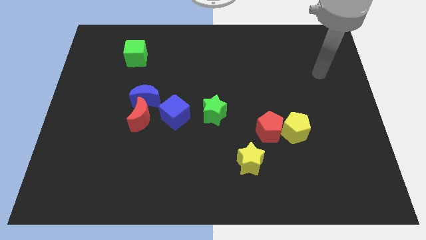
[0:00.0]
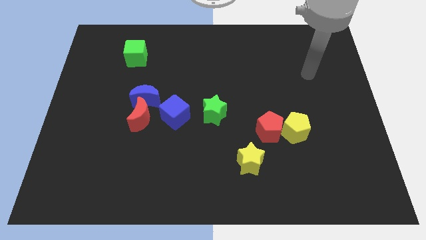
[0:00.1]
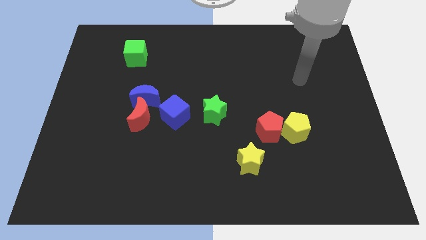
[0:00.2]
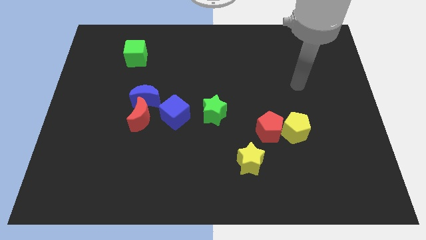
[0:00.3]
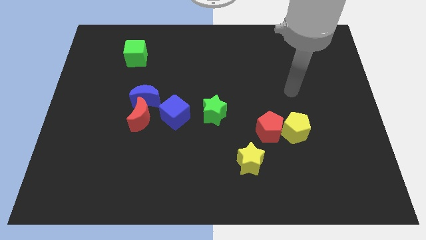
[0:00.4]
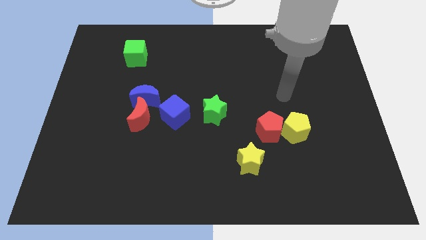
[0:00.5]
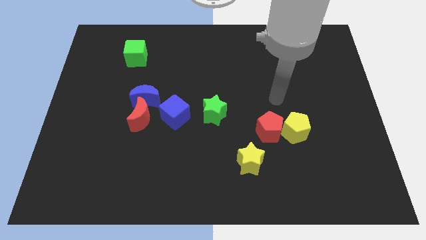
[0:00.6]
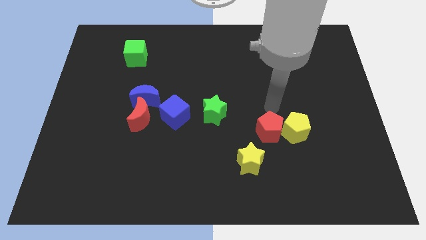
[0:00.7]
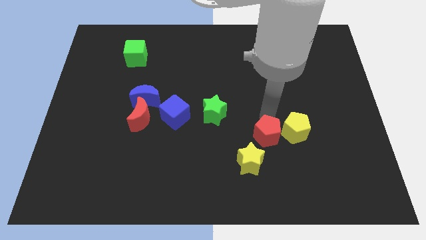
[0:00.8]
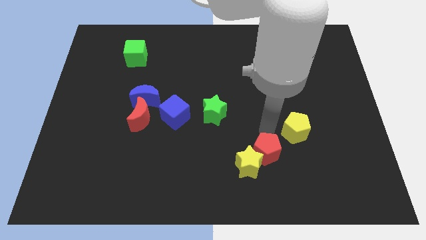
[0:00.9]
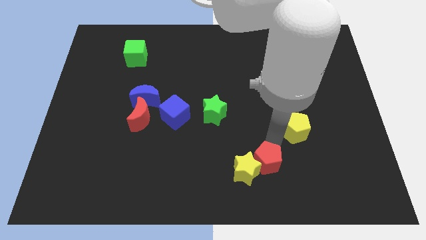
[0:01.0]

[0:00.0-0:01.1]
pull the yellow pentagon apart from the red pentagon

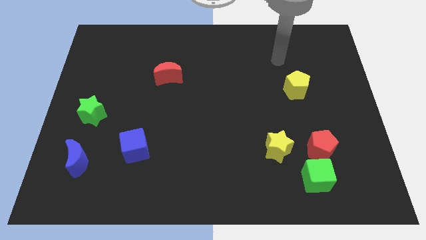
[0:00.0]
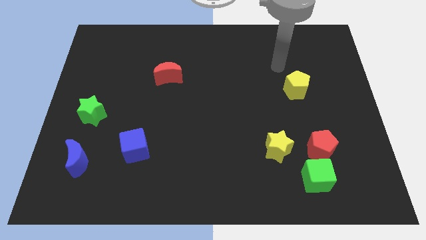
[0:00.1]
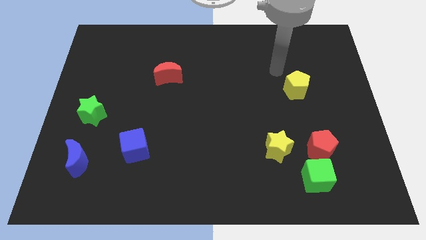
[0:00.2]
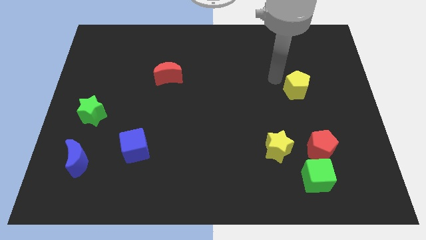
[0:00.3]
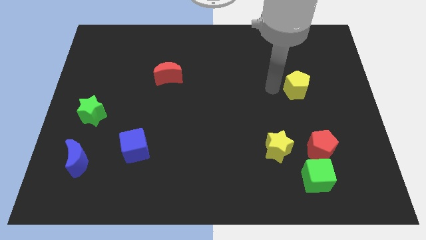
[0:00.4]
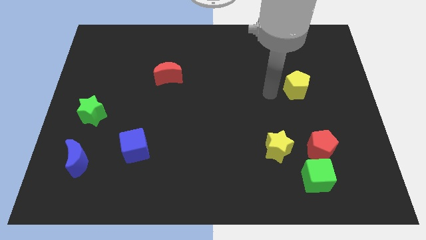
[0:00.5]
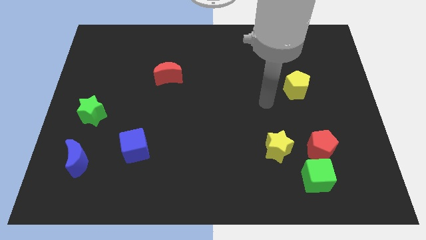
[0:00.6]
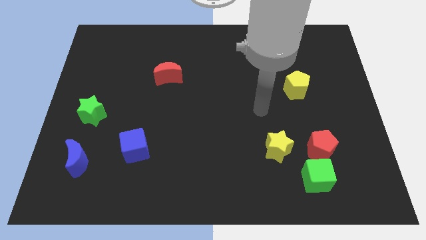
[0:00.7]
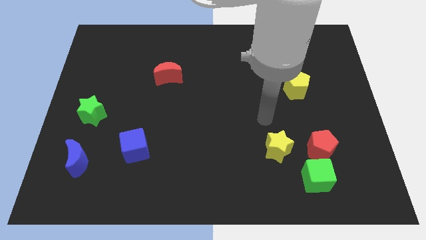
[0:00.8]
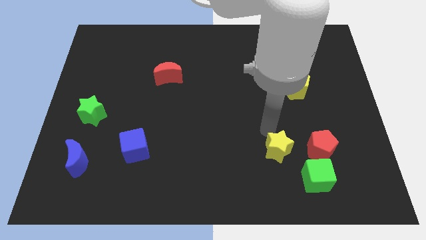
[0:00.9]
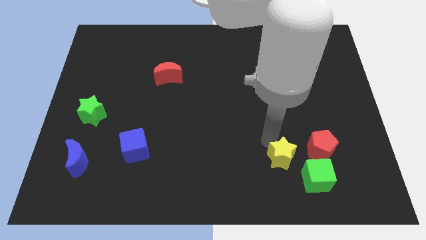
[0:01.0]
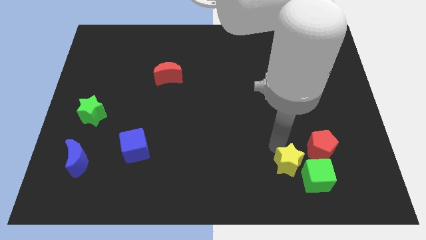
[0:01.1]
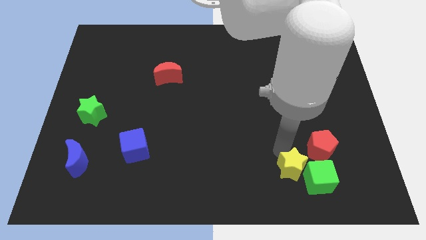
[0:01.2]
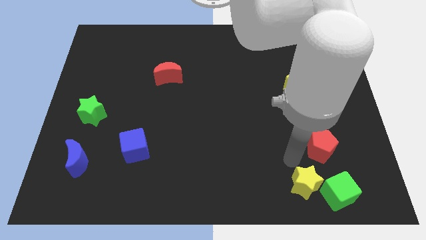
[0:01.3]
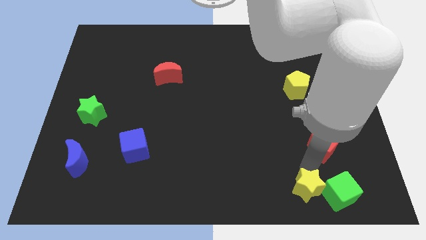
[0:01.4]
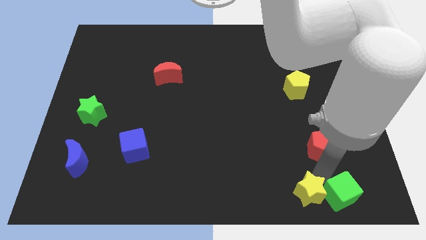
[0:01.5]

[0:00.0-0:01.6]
move the red pentagon away from the green cube and yellow star

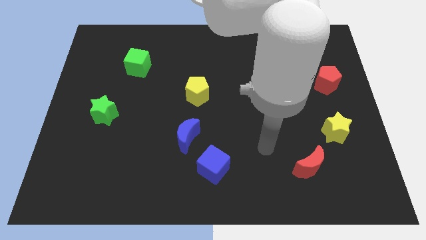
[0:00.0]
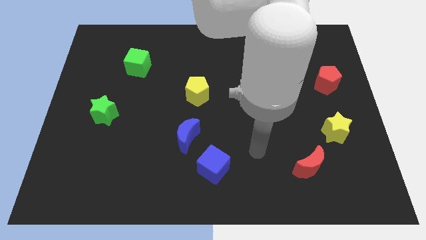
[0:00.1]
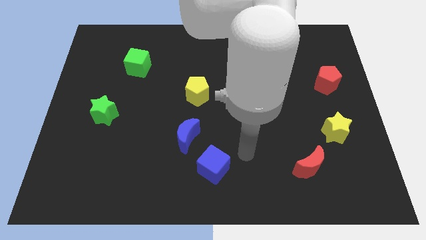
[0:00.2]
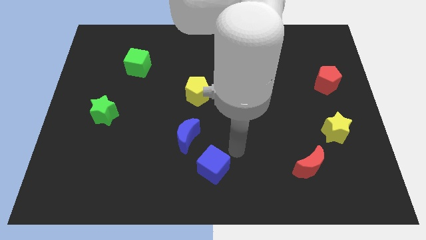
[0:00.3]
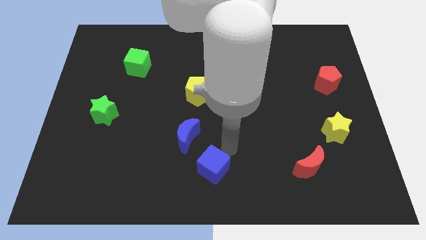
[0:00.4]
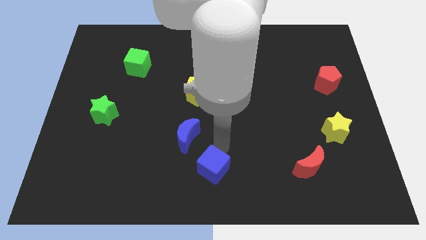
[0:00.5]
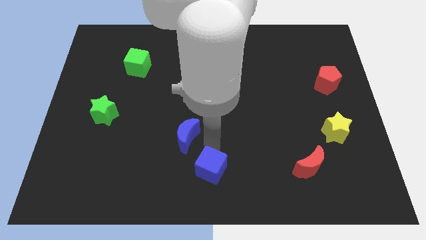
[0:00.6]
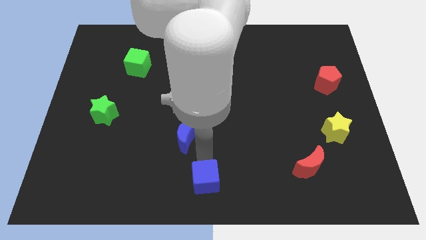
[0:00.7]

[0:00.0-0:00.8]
pull the blue moon apart from the blue cube

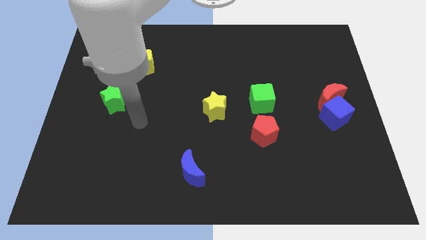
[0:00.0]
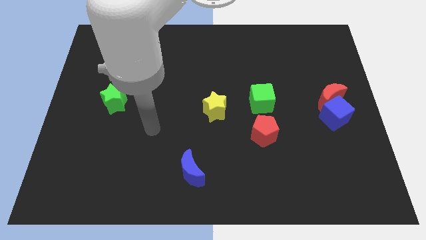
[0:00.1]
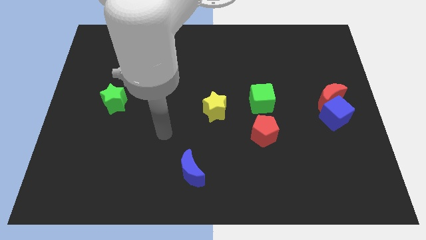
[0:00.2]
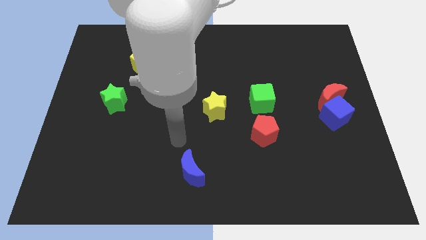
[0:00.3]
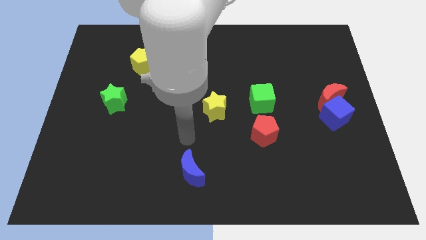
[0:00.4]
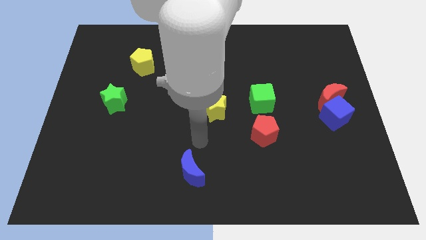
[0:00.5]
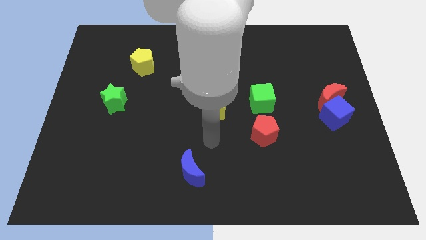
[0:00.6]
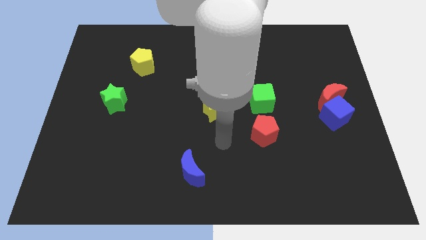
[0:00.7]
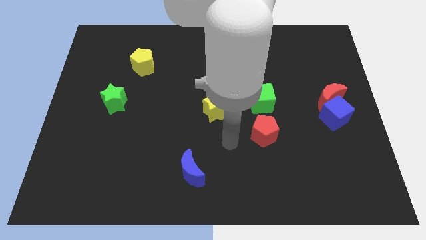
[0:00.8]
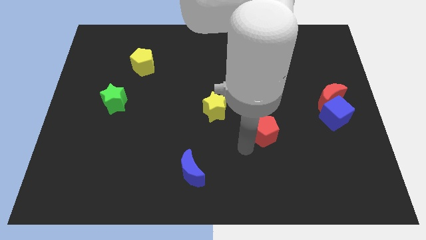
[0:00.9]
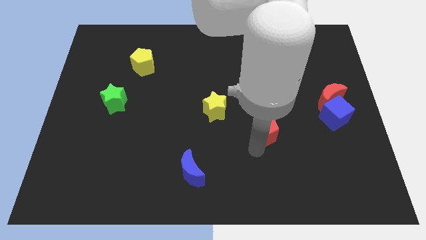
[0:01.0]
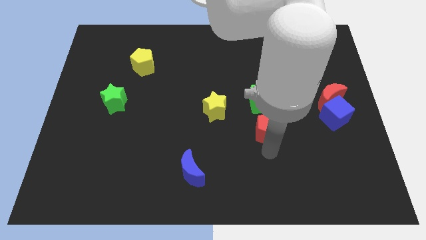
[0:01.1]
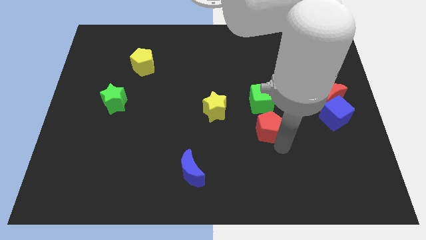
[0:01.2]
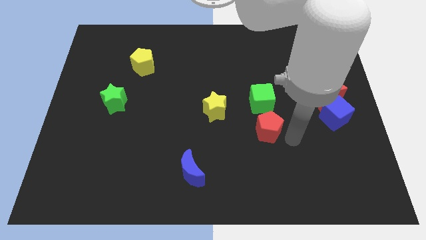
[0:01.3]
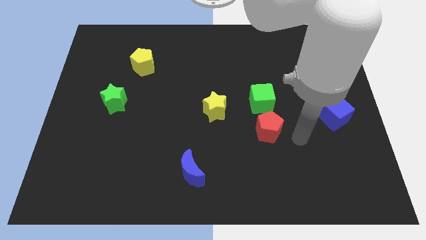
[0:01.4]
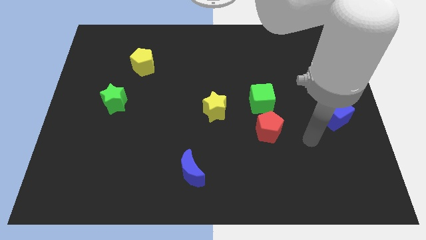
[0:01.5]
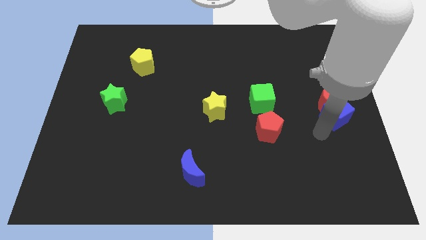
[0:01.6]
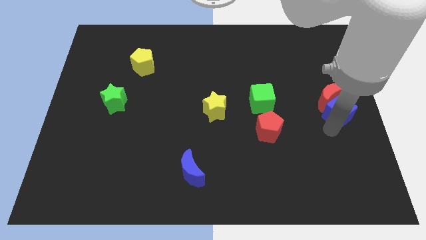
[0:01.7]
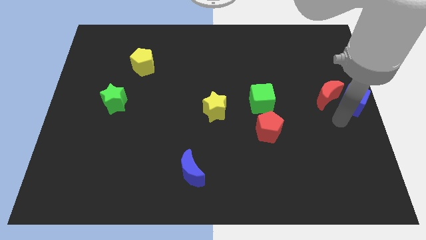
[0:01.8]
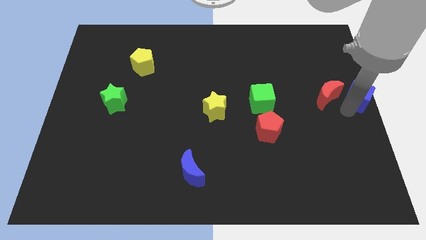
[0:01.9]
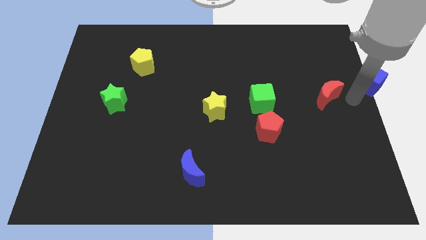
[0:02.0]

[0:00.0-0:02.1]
separate the red moon from the blue cube

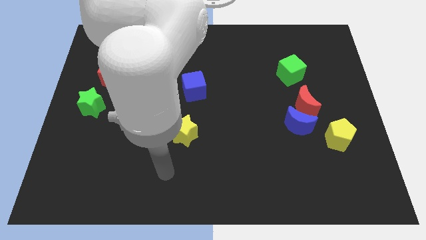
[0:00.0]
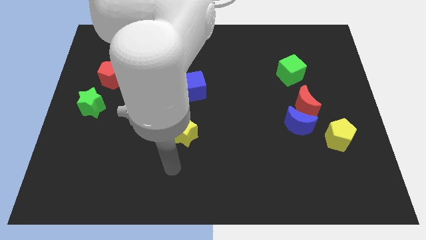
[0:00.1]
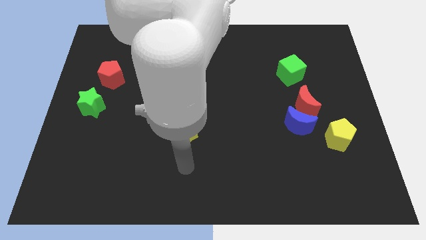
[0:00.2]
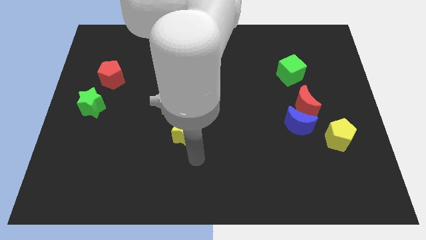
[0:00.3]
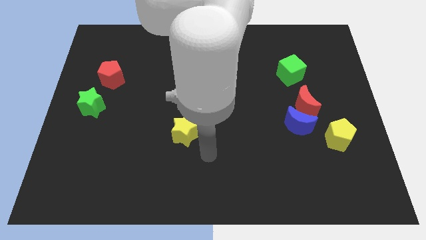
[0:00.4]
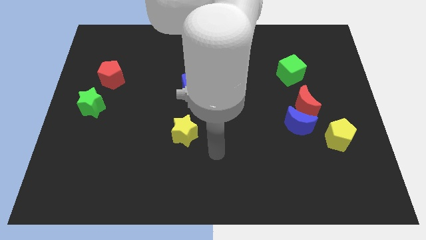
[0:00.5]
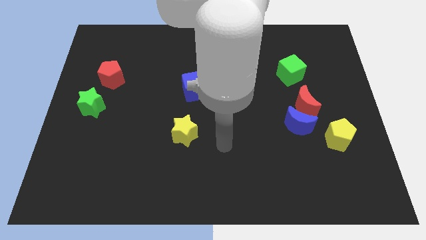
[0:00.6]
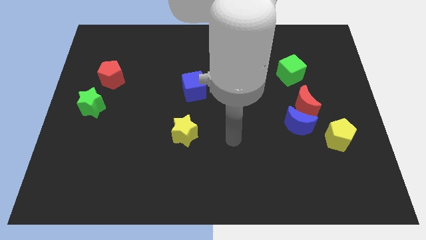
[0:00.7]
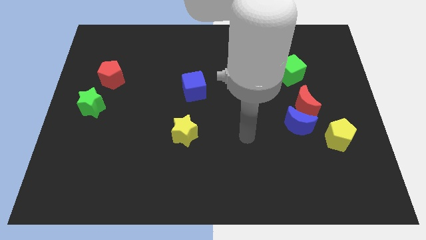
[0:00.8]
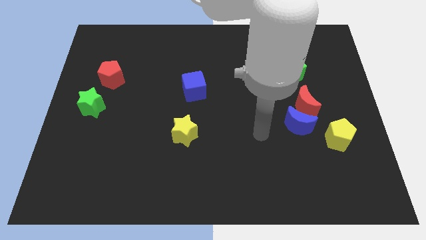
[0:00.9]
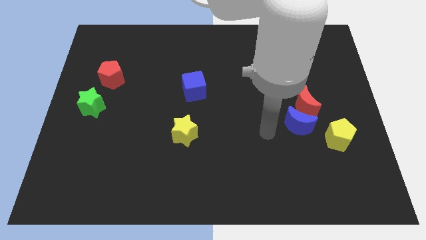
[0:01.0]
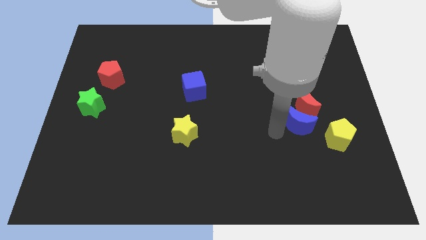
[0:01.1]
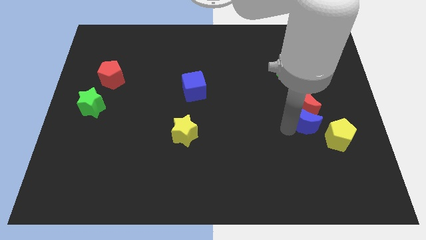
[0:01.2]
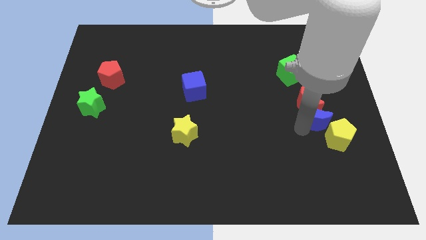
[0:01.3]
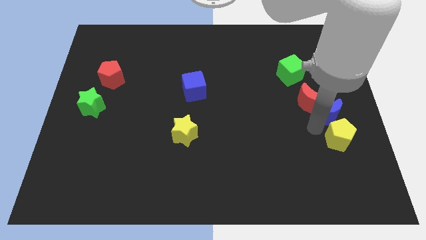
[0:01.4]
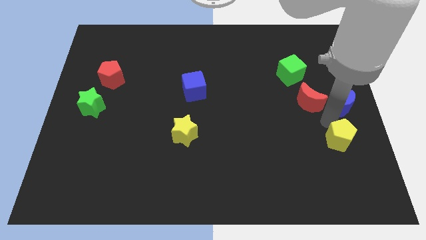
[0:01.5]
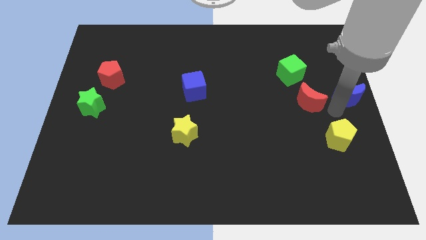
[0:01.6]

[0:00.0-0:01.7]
pull the red moon apart from the blue moon

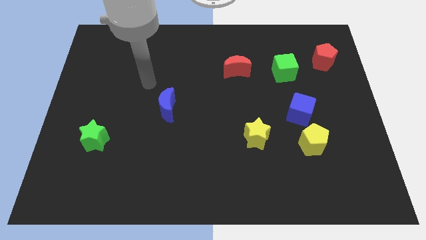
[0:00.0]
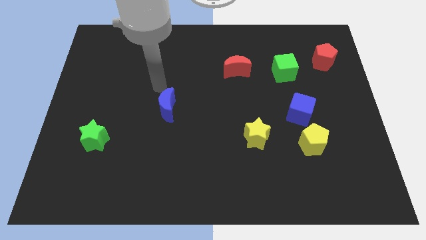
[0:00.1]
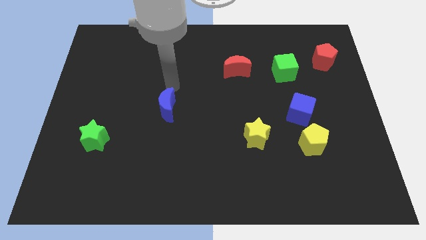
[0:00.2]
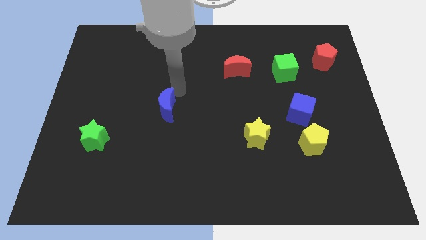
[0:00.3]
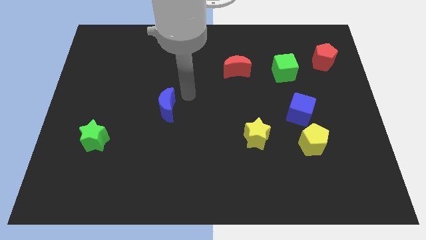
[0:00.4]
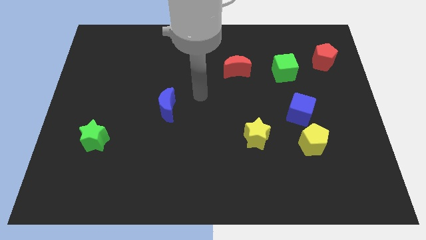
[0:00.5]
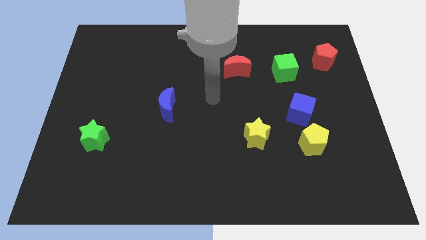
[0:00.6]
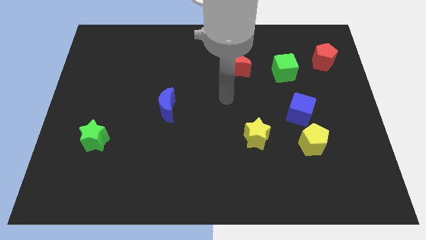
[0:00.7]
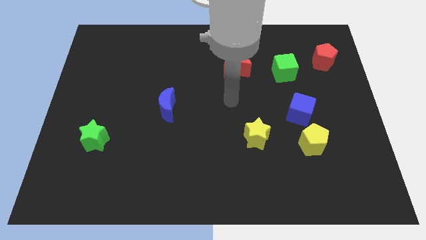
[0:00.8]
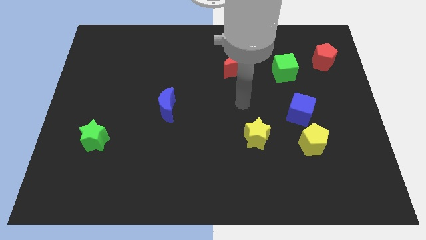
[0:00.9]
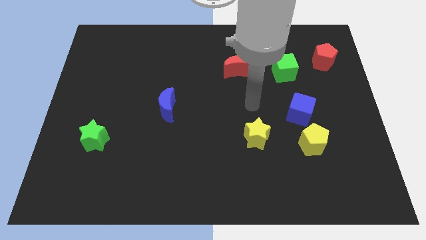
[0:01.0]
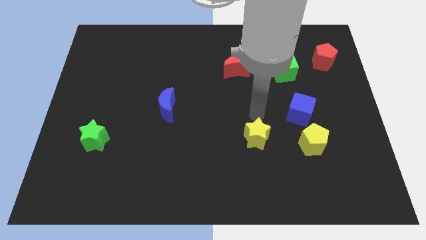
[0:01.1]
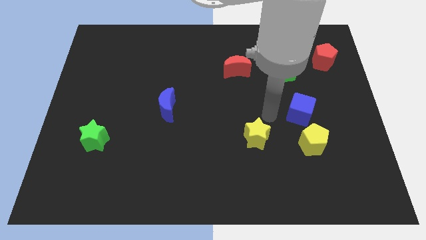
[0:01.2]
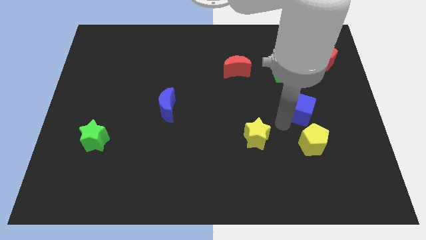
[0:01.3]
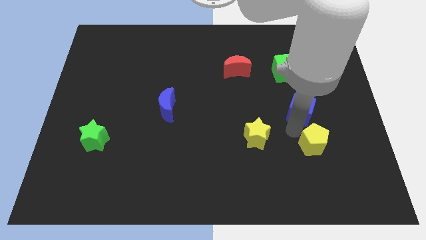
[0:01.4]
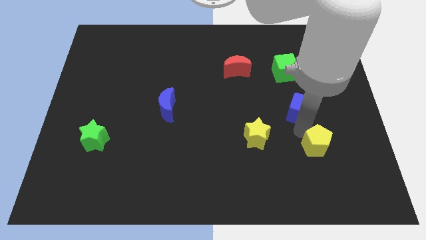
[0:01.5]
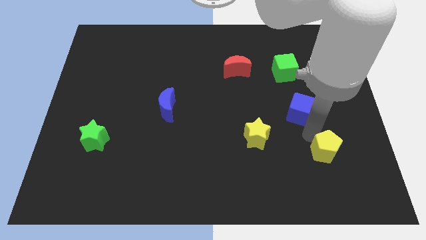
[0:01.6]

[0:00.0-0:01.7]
move the blue cube away from the yellow pentagon

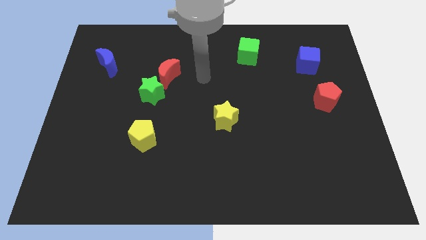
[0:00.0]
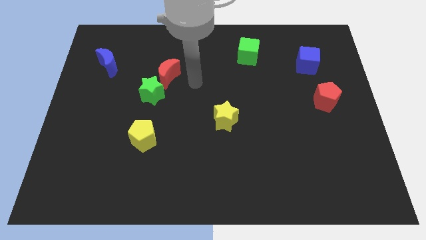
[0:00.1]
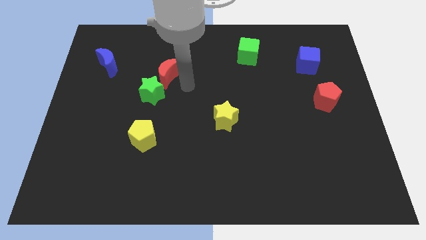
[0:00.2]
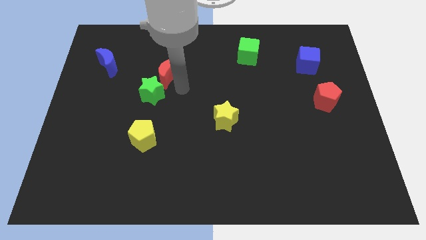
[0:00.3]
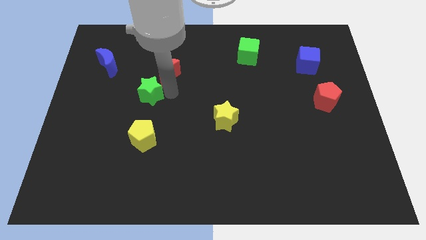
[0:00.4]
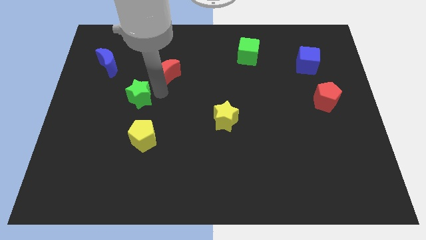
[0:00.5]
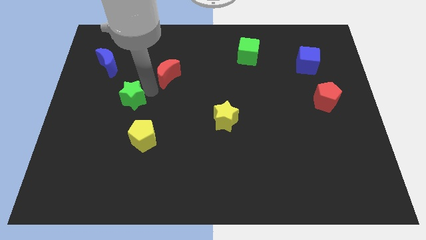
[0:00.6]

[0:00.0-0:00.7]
separate the red moon from the green star
